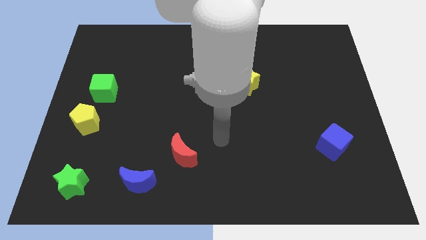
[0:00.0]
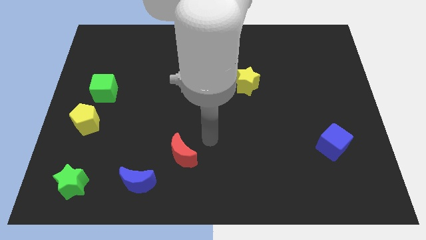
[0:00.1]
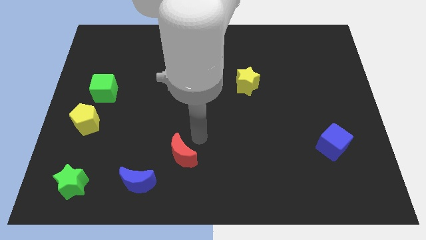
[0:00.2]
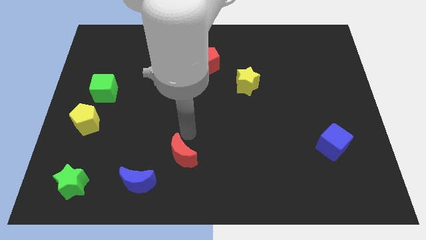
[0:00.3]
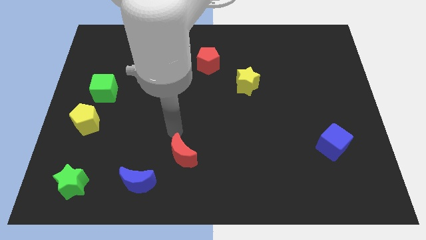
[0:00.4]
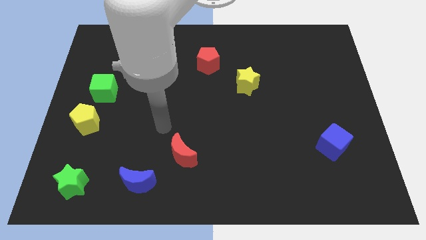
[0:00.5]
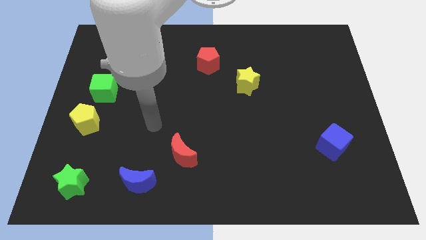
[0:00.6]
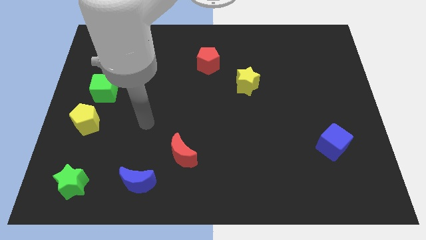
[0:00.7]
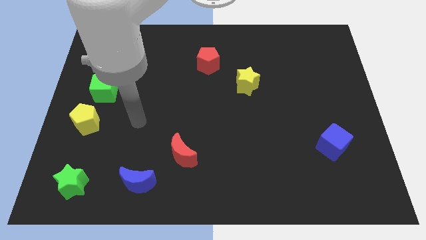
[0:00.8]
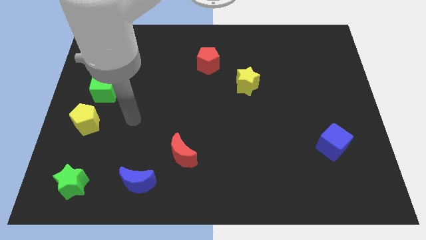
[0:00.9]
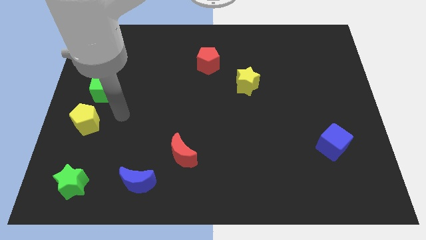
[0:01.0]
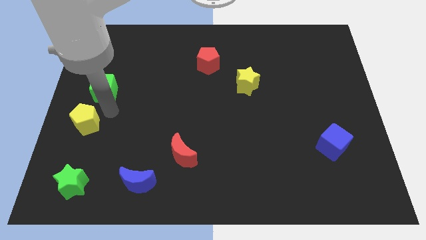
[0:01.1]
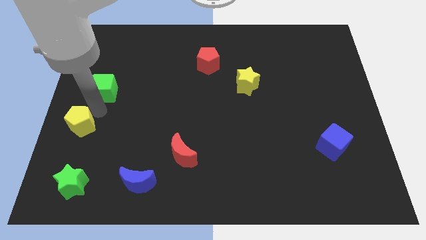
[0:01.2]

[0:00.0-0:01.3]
pull the green cube apart from the yellow pentagon

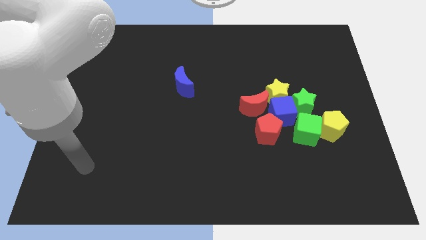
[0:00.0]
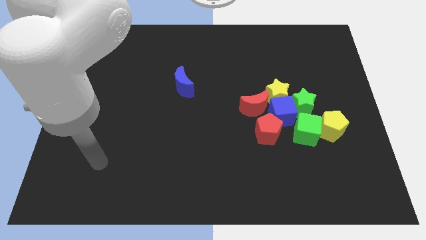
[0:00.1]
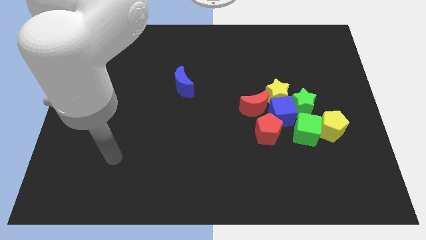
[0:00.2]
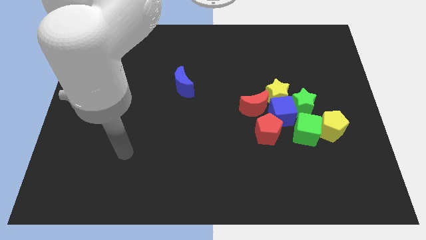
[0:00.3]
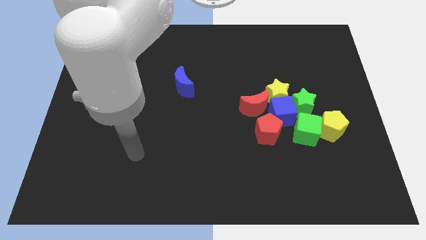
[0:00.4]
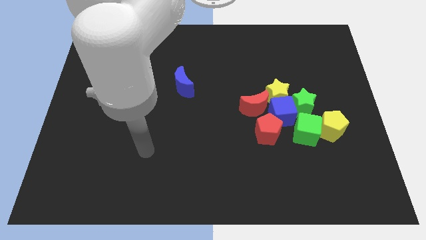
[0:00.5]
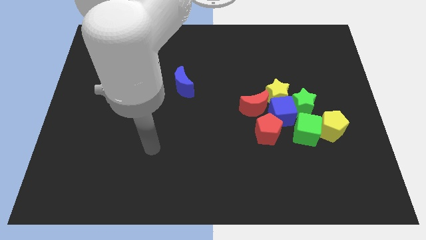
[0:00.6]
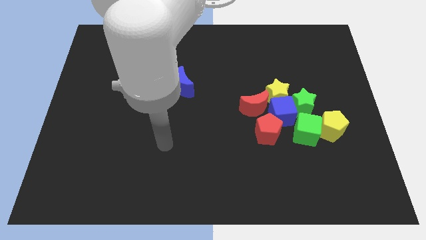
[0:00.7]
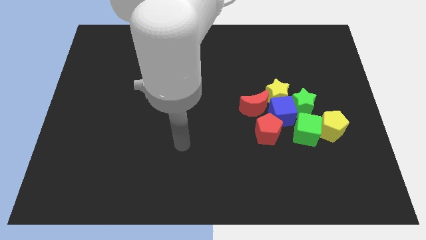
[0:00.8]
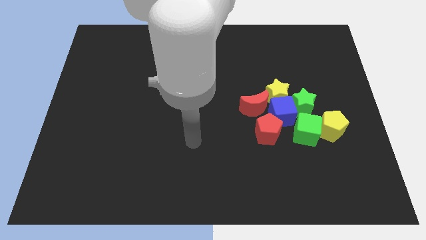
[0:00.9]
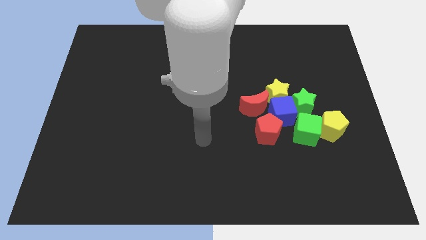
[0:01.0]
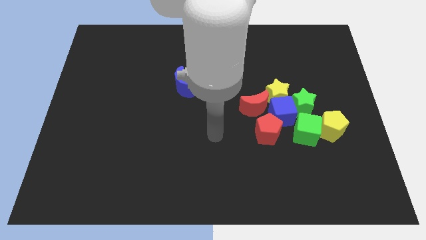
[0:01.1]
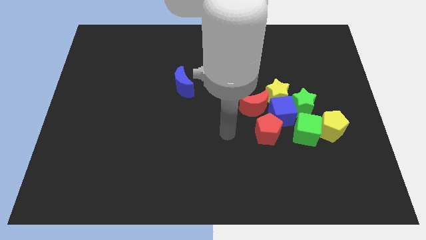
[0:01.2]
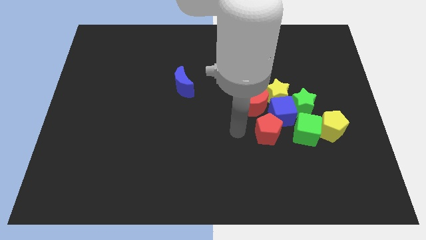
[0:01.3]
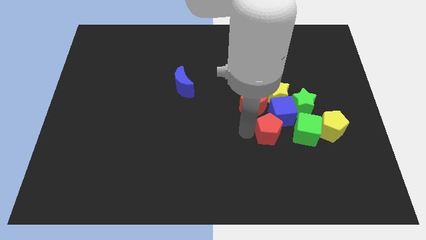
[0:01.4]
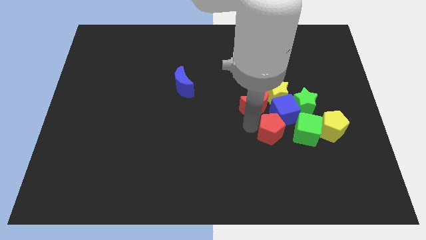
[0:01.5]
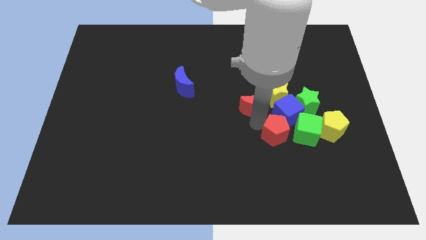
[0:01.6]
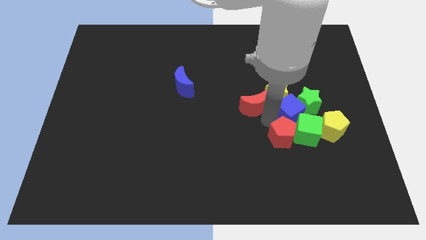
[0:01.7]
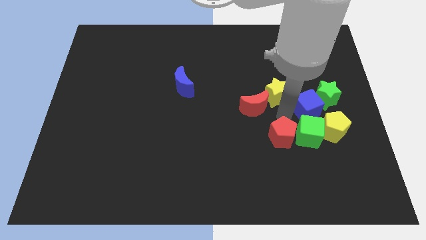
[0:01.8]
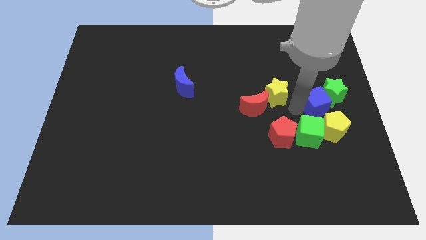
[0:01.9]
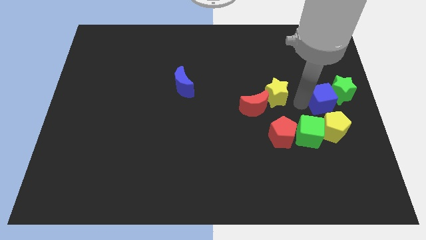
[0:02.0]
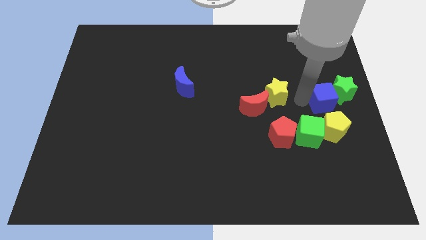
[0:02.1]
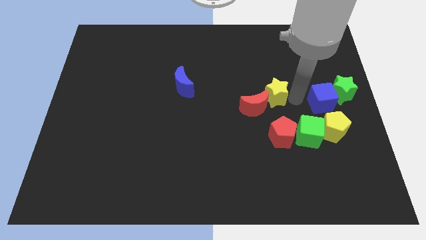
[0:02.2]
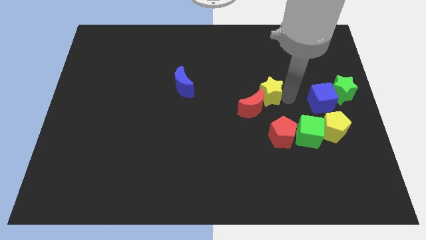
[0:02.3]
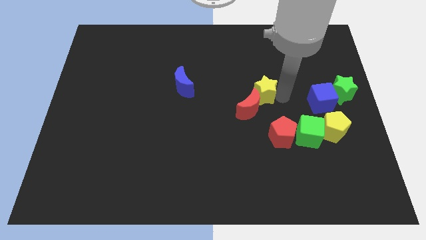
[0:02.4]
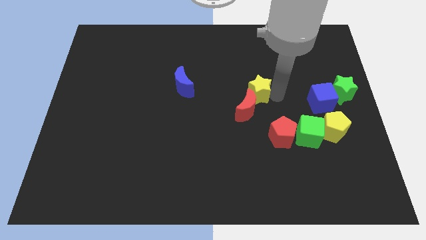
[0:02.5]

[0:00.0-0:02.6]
pull the yellow star apart from the blue cube, red moon, and green star

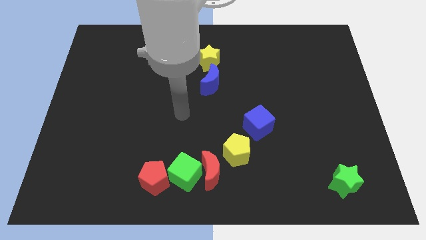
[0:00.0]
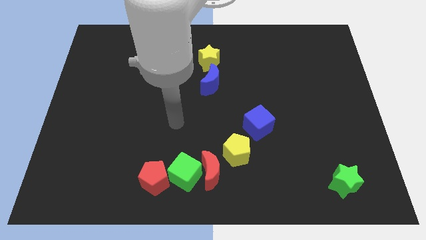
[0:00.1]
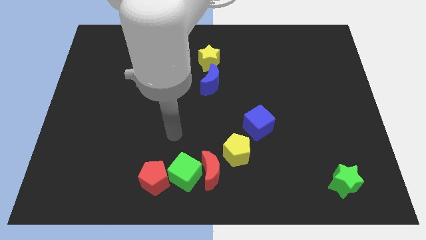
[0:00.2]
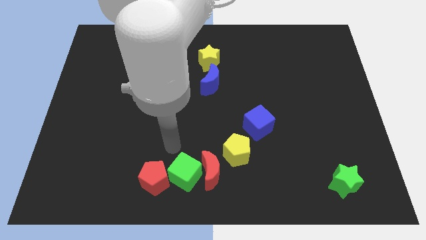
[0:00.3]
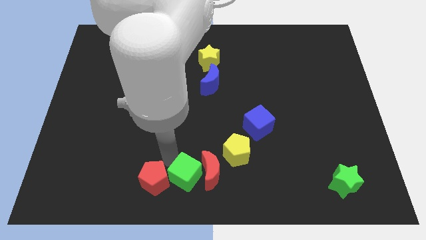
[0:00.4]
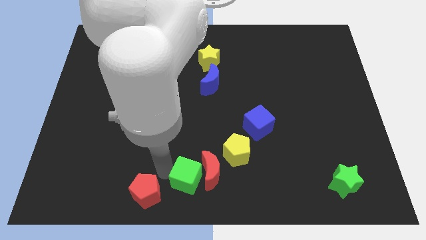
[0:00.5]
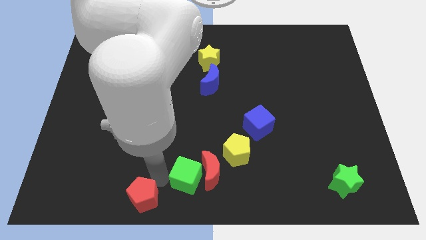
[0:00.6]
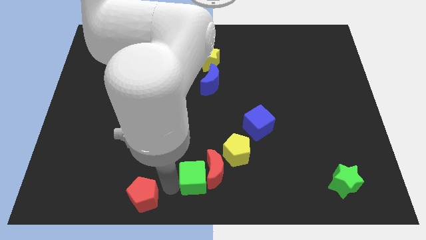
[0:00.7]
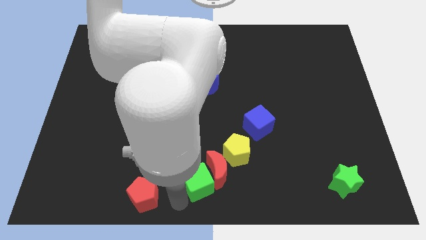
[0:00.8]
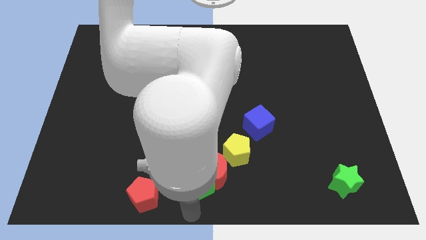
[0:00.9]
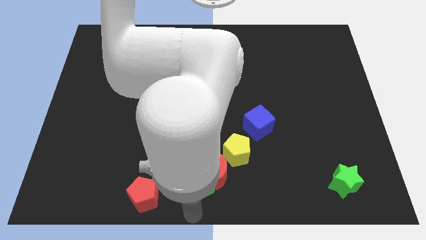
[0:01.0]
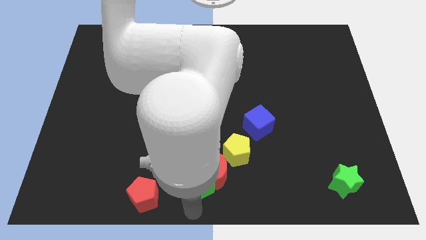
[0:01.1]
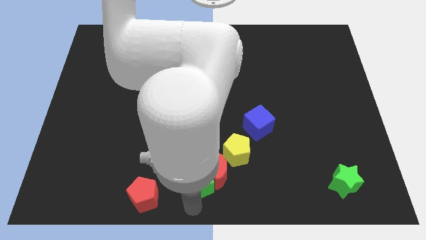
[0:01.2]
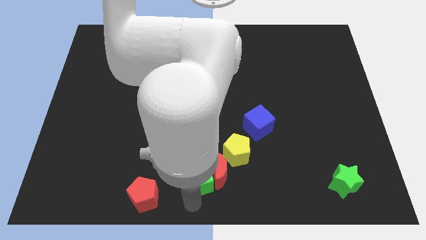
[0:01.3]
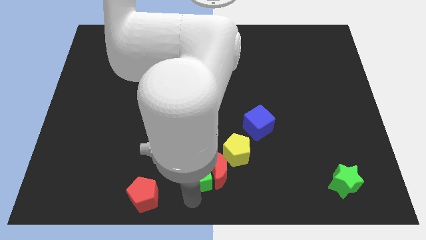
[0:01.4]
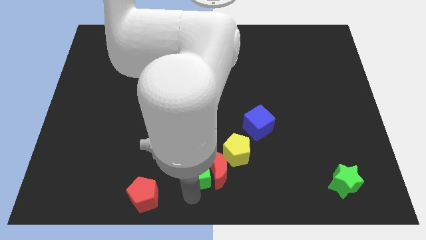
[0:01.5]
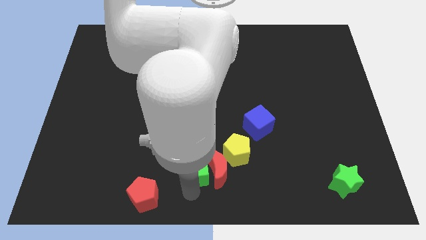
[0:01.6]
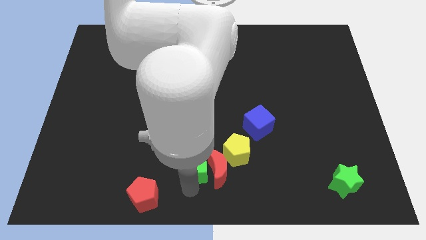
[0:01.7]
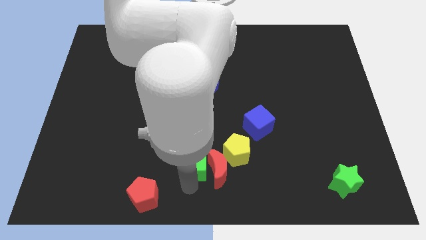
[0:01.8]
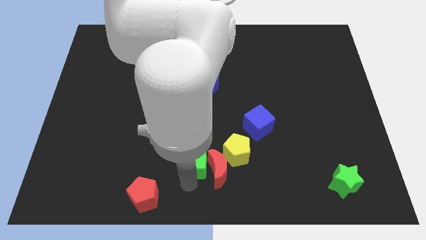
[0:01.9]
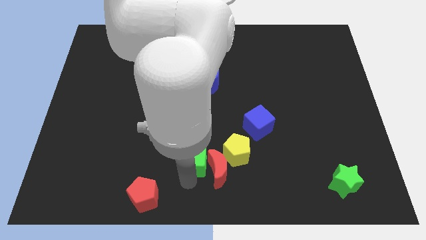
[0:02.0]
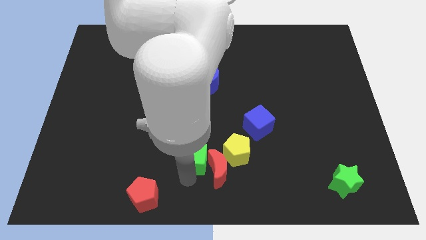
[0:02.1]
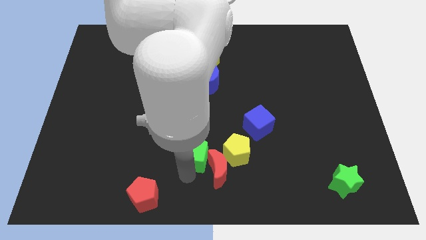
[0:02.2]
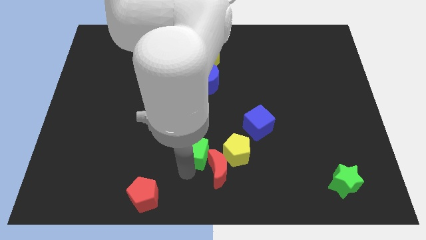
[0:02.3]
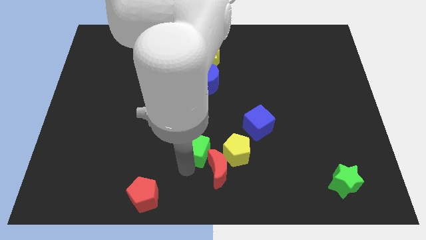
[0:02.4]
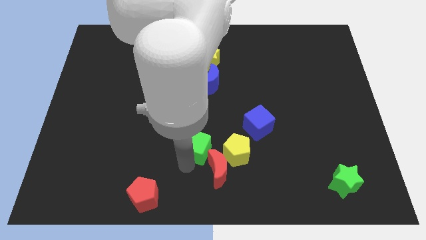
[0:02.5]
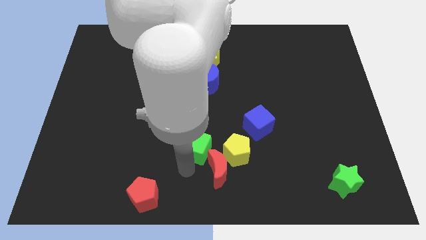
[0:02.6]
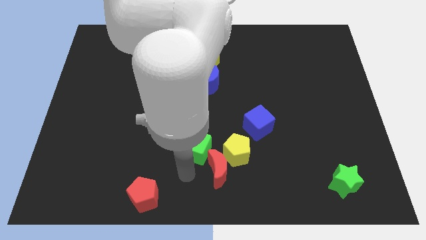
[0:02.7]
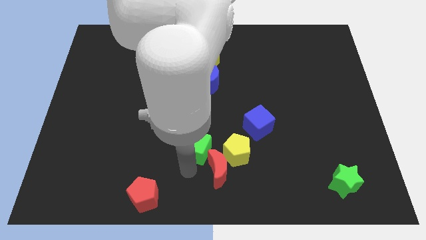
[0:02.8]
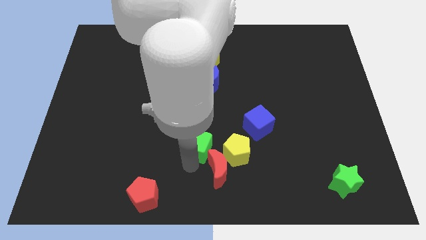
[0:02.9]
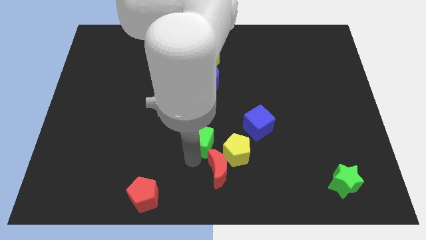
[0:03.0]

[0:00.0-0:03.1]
move the green cube away from the red moon and red pentagon

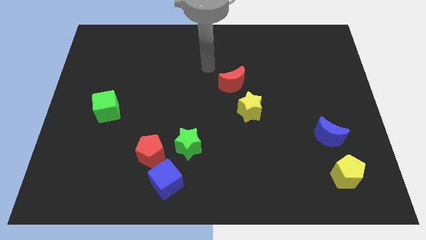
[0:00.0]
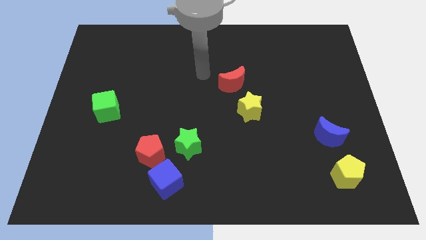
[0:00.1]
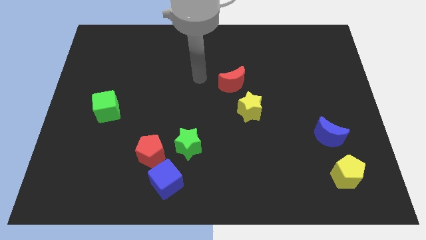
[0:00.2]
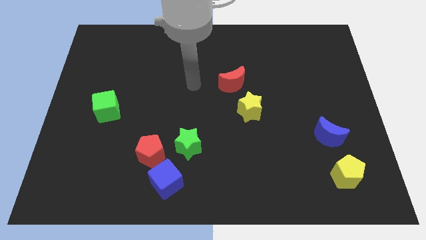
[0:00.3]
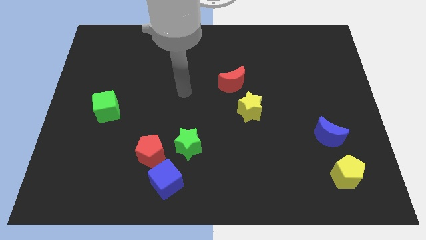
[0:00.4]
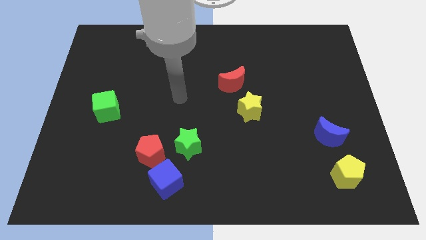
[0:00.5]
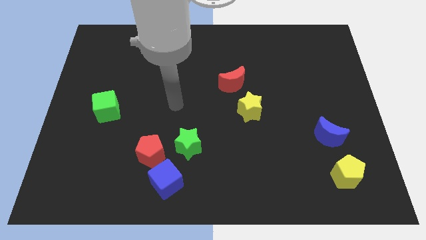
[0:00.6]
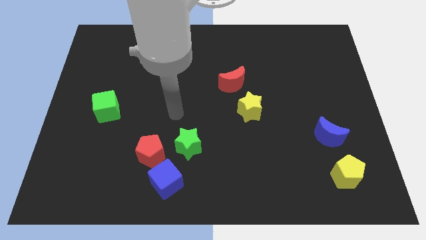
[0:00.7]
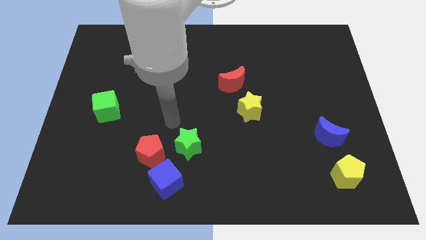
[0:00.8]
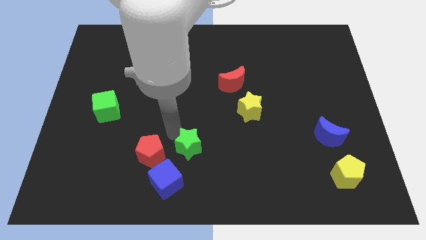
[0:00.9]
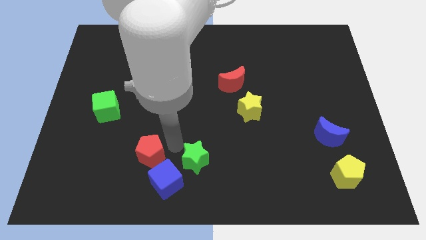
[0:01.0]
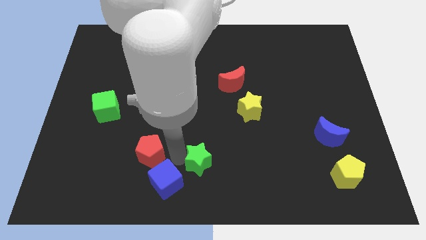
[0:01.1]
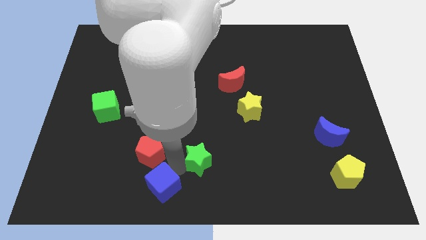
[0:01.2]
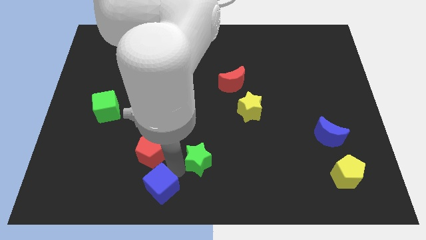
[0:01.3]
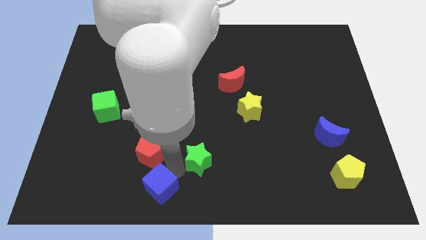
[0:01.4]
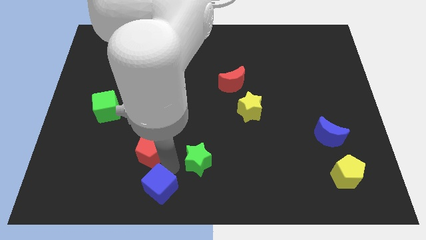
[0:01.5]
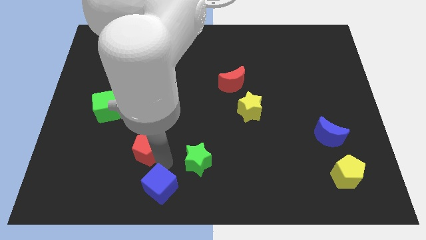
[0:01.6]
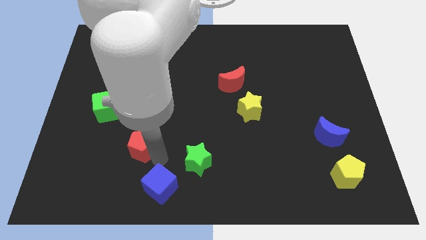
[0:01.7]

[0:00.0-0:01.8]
move the red pentagon away from the blue cube and green star

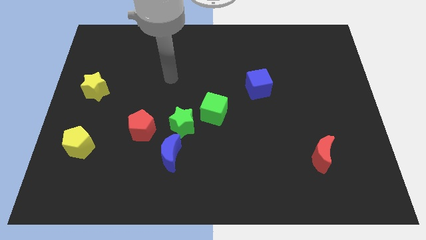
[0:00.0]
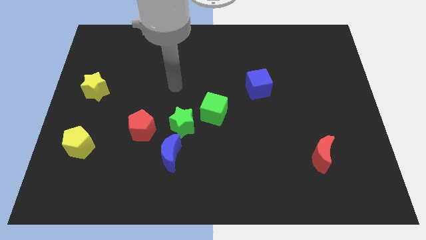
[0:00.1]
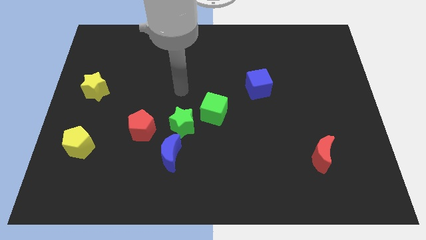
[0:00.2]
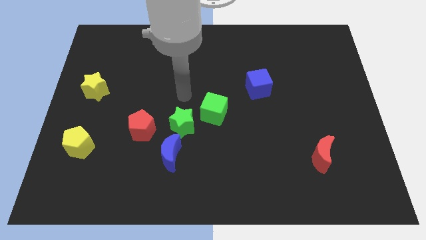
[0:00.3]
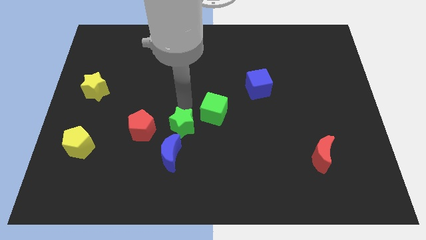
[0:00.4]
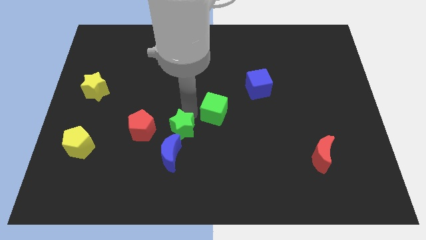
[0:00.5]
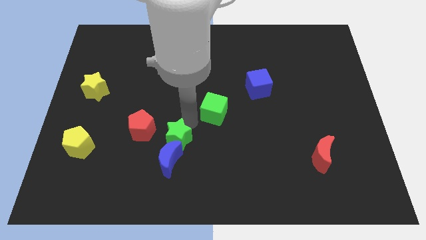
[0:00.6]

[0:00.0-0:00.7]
separate the green cube from the green star
